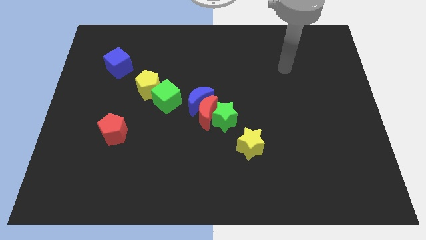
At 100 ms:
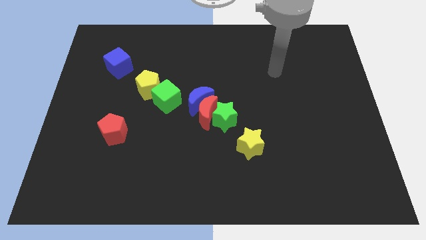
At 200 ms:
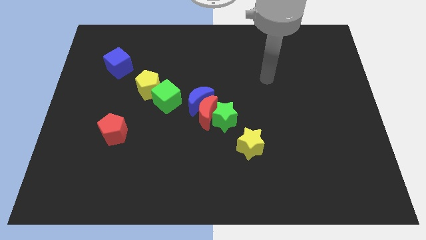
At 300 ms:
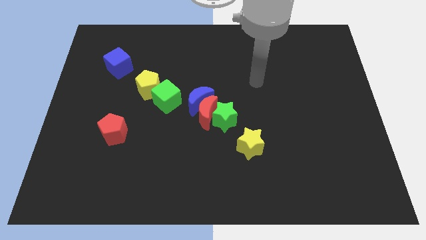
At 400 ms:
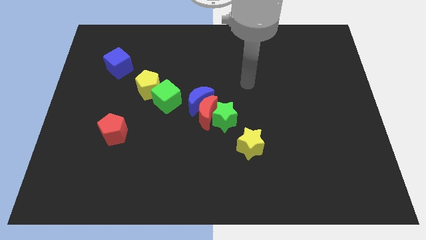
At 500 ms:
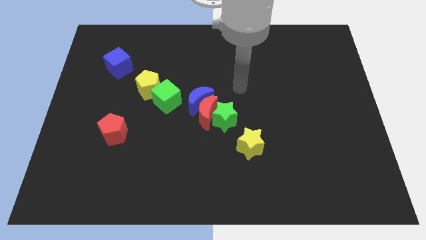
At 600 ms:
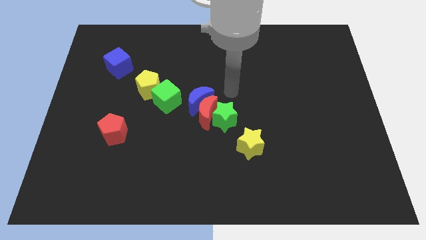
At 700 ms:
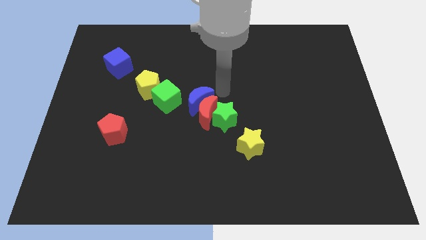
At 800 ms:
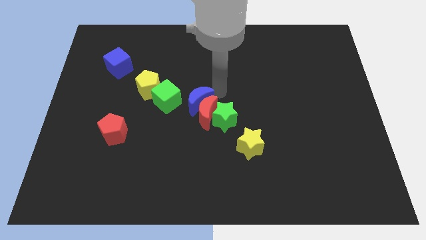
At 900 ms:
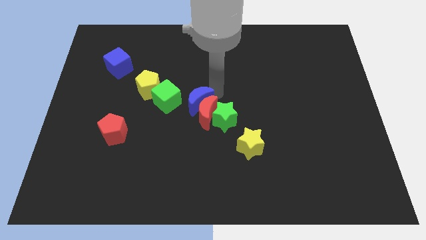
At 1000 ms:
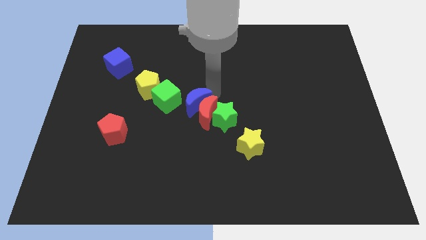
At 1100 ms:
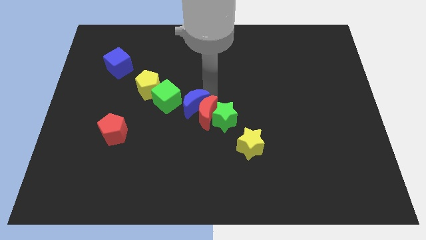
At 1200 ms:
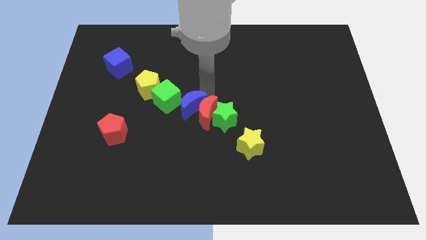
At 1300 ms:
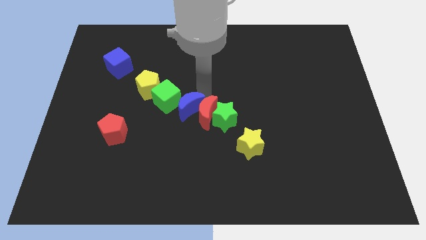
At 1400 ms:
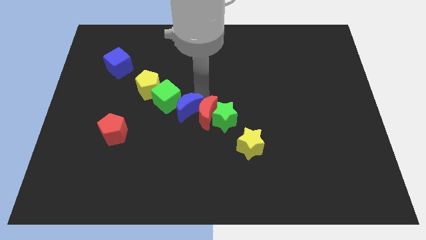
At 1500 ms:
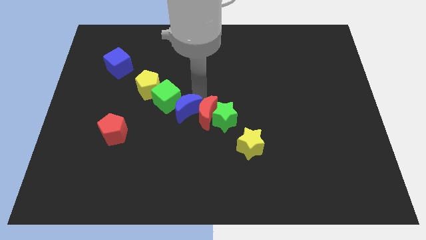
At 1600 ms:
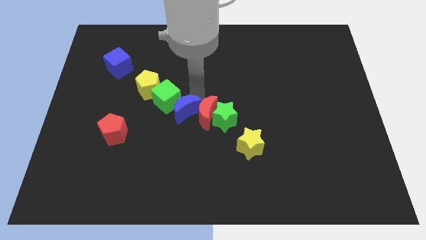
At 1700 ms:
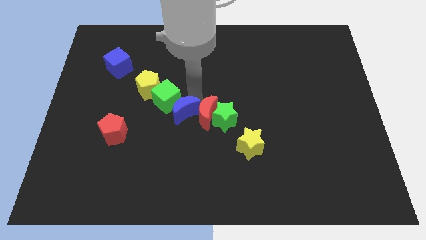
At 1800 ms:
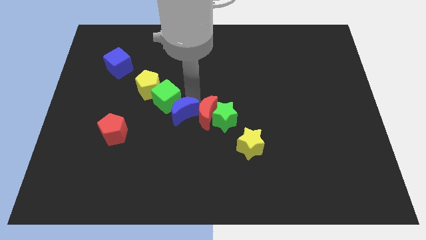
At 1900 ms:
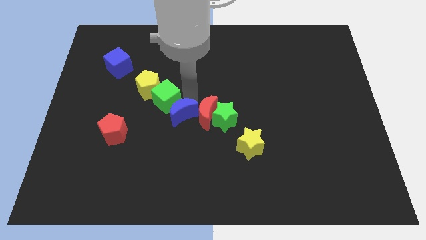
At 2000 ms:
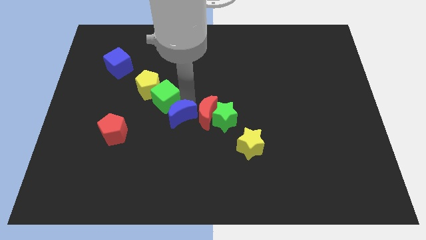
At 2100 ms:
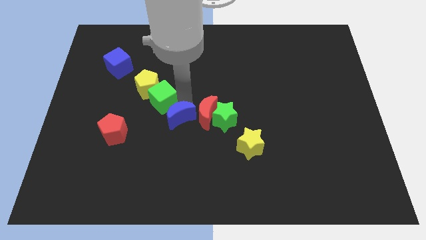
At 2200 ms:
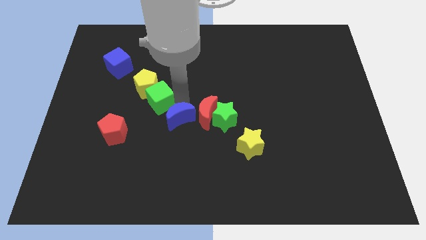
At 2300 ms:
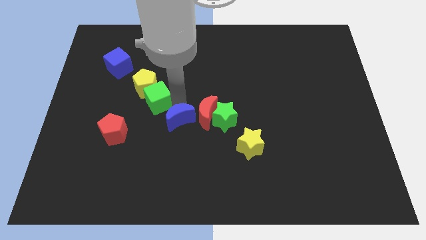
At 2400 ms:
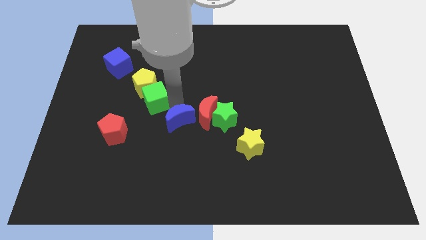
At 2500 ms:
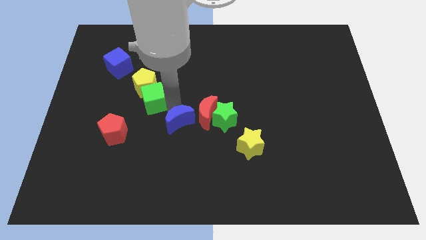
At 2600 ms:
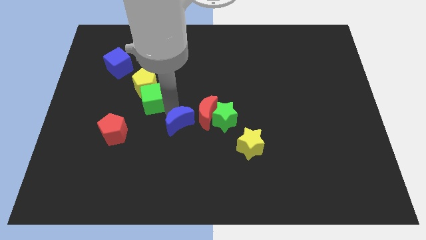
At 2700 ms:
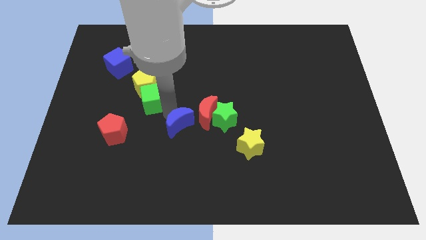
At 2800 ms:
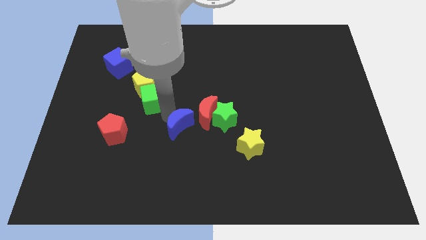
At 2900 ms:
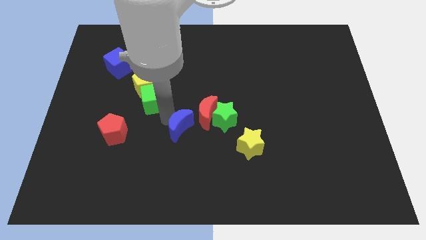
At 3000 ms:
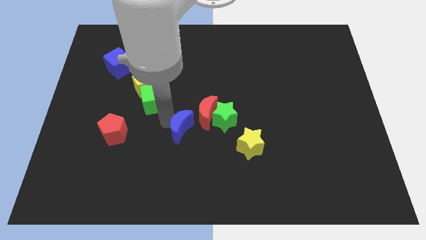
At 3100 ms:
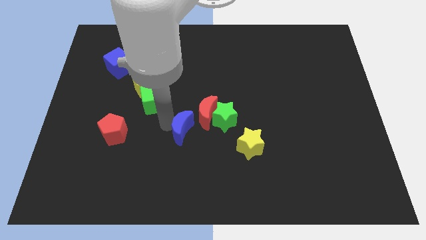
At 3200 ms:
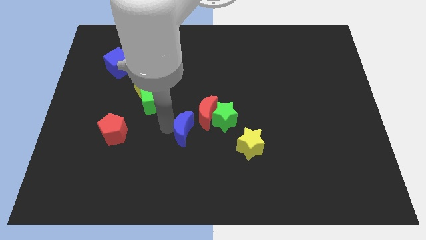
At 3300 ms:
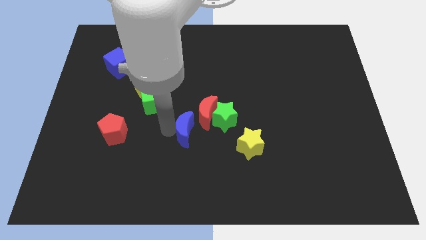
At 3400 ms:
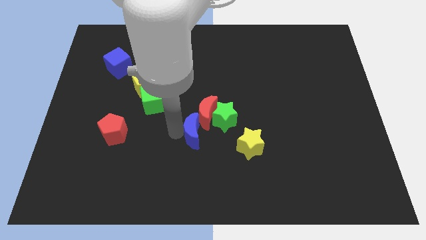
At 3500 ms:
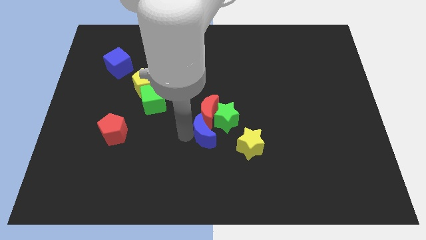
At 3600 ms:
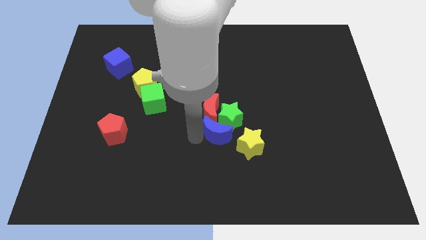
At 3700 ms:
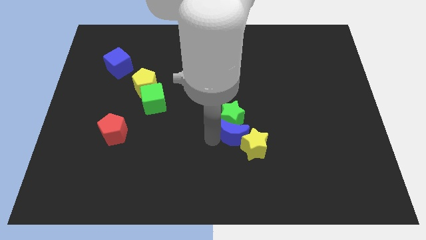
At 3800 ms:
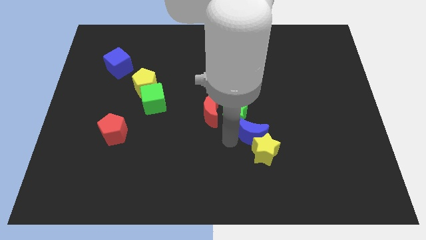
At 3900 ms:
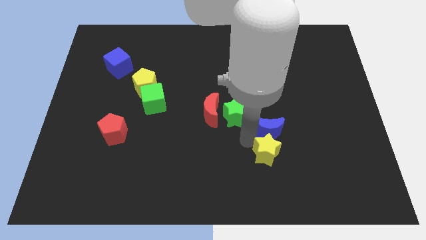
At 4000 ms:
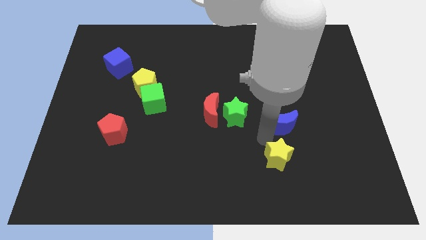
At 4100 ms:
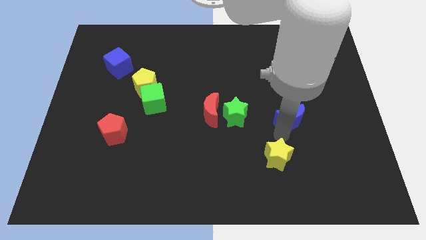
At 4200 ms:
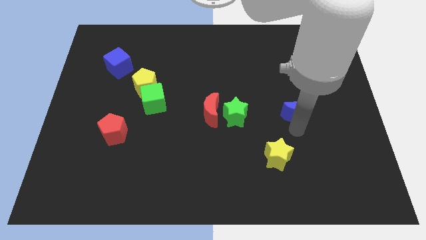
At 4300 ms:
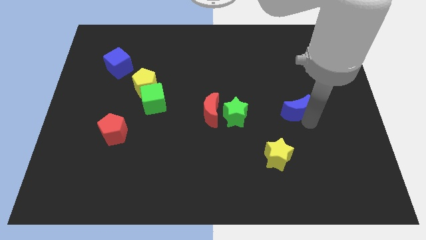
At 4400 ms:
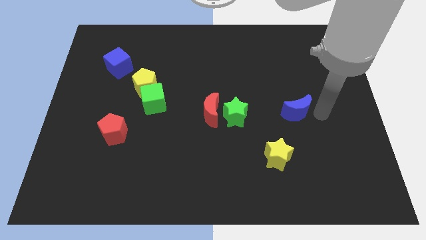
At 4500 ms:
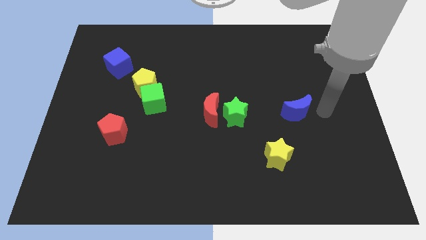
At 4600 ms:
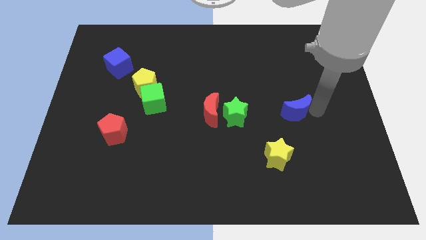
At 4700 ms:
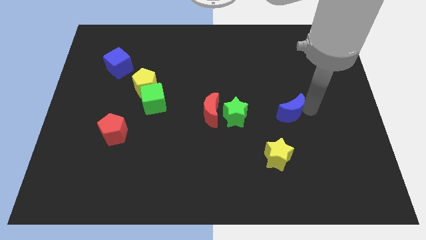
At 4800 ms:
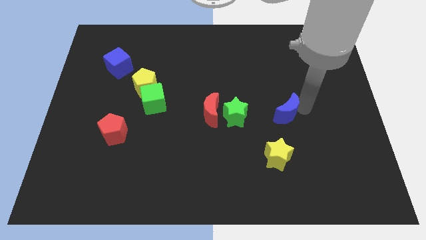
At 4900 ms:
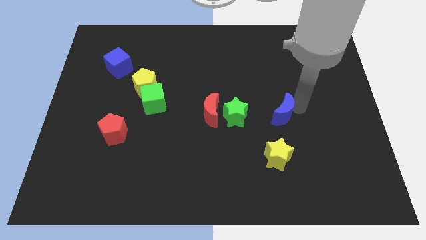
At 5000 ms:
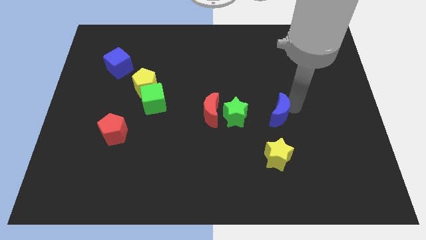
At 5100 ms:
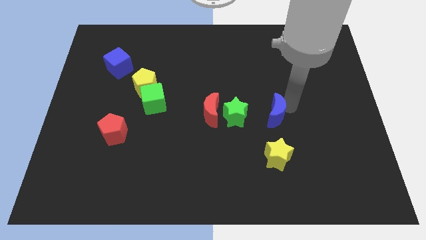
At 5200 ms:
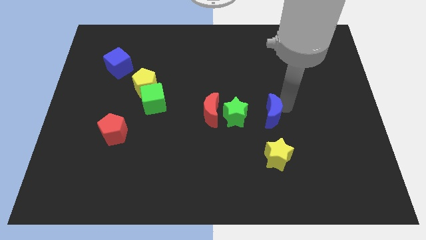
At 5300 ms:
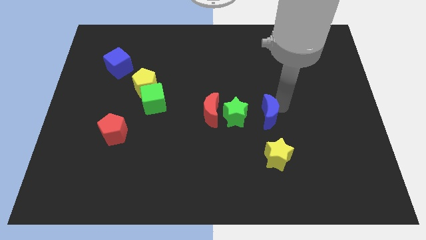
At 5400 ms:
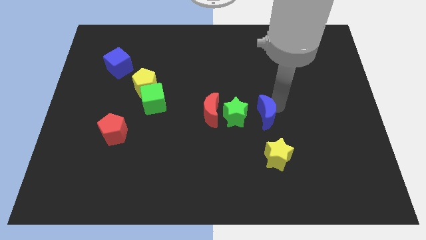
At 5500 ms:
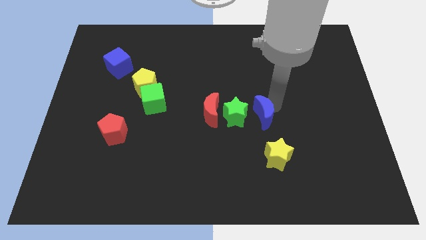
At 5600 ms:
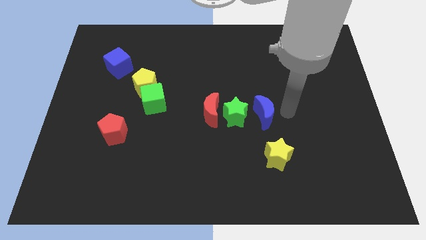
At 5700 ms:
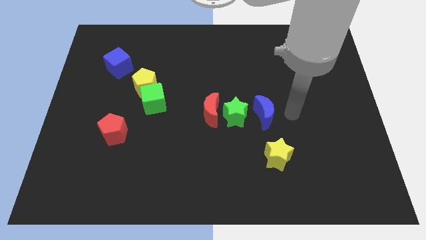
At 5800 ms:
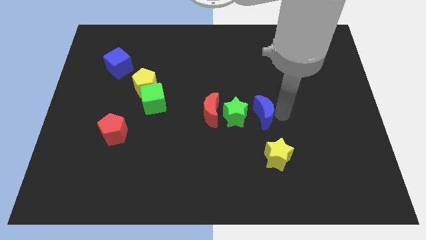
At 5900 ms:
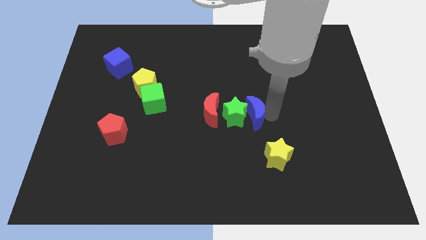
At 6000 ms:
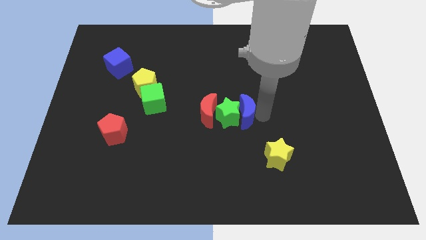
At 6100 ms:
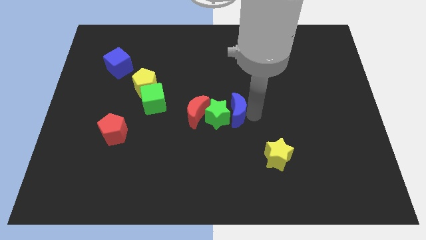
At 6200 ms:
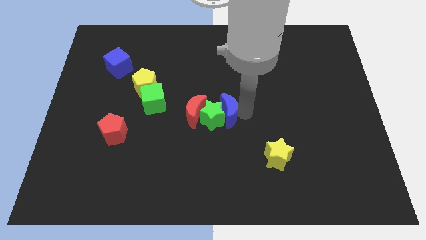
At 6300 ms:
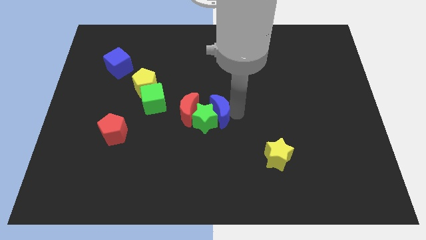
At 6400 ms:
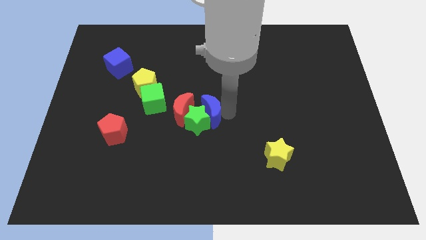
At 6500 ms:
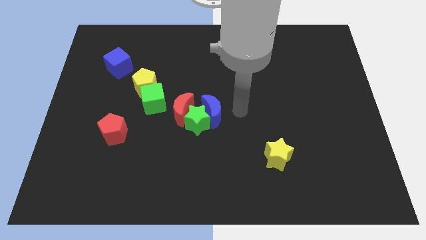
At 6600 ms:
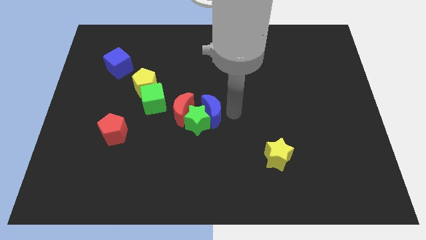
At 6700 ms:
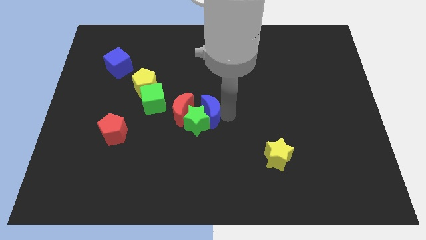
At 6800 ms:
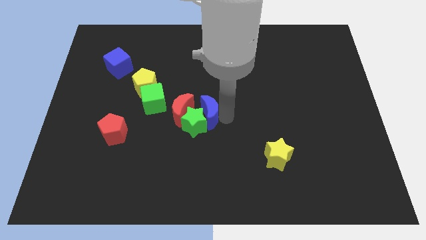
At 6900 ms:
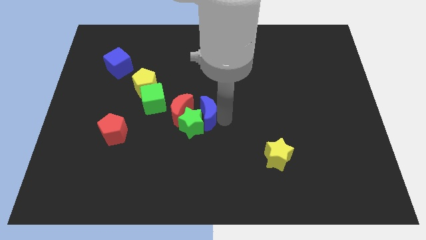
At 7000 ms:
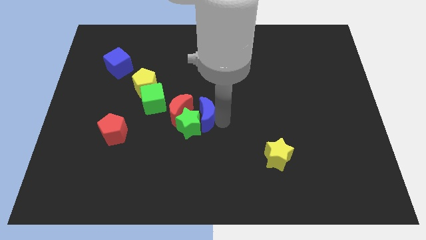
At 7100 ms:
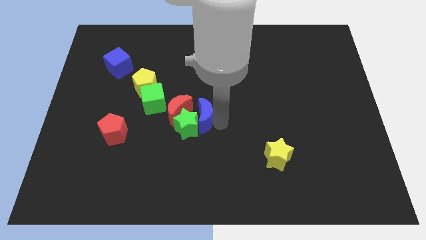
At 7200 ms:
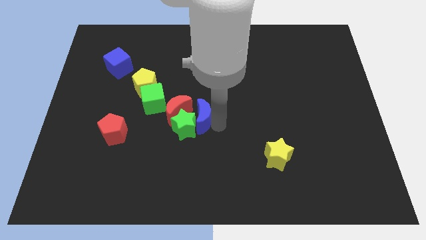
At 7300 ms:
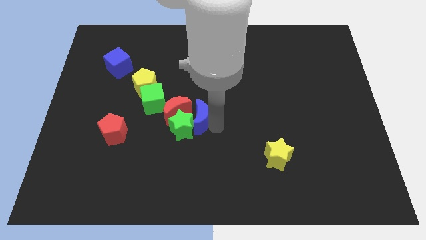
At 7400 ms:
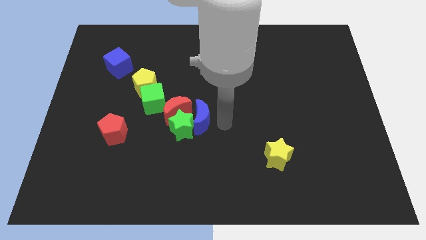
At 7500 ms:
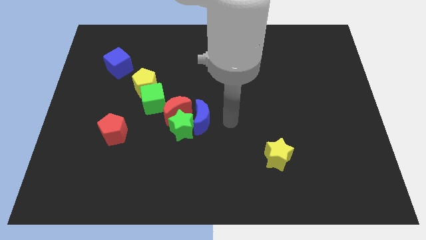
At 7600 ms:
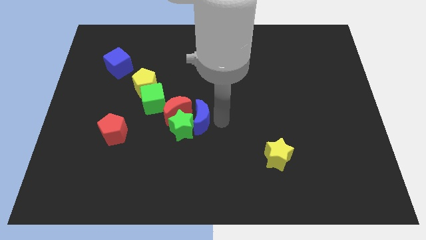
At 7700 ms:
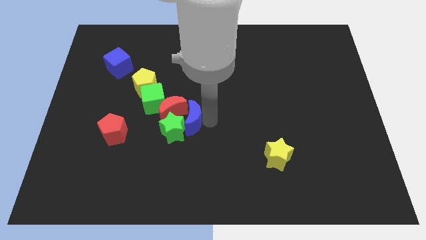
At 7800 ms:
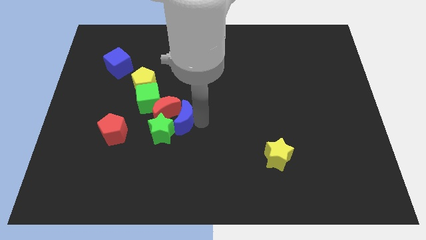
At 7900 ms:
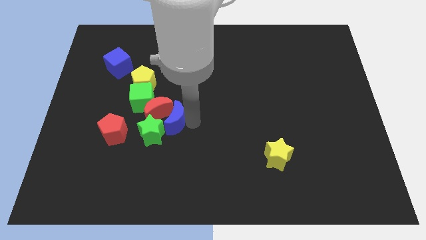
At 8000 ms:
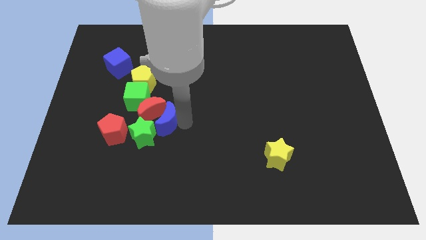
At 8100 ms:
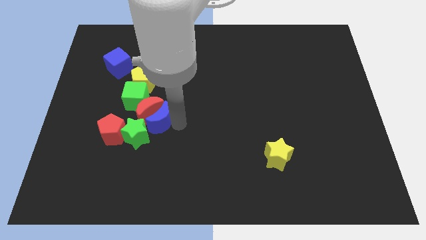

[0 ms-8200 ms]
move the blue moon left slightly

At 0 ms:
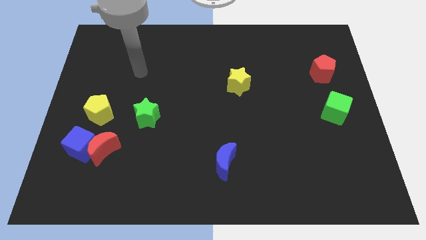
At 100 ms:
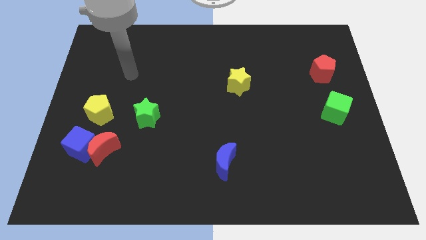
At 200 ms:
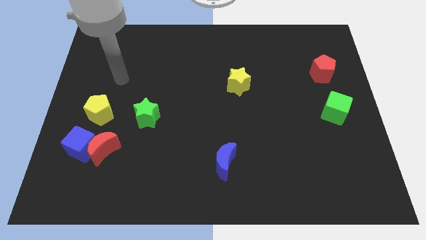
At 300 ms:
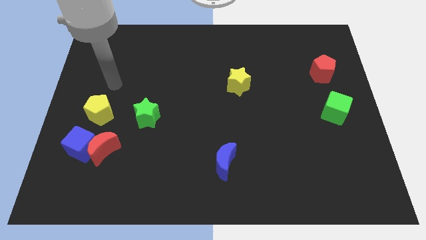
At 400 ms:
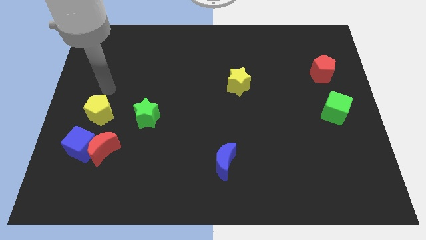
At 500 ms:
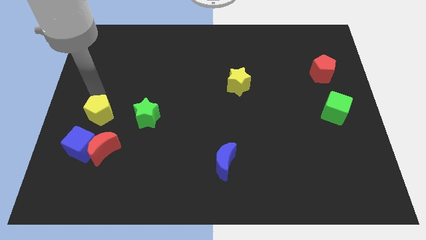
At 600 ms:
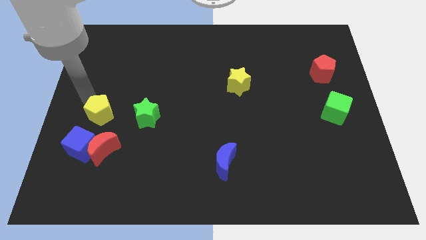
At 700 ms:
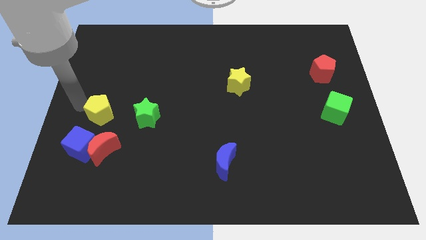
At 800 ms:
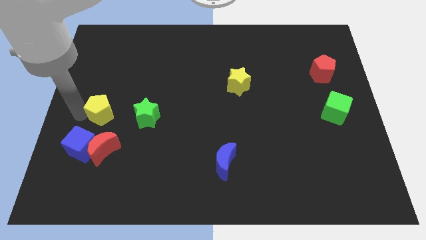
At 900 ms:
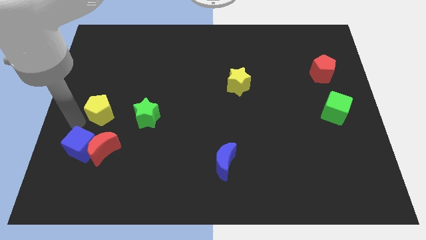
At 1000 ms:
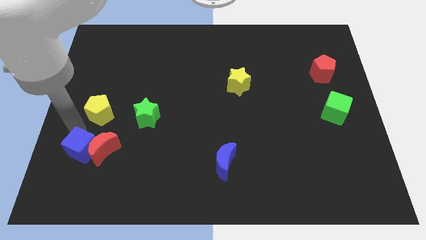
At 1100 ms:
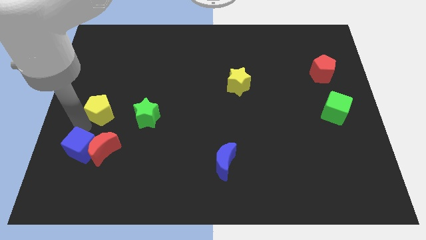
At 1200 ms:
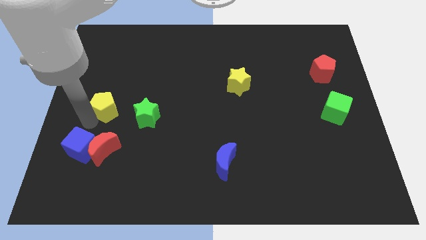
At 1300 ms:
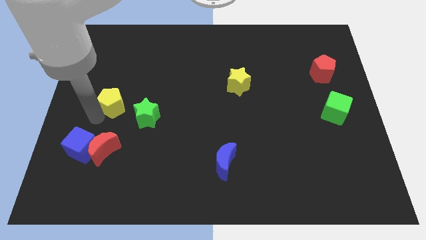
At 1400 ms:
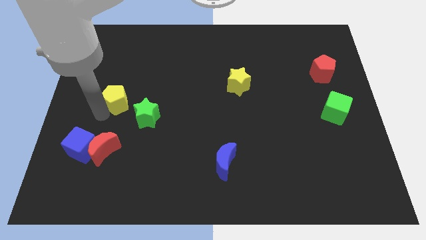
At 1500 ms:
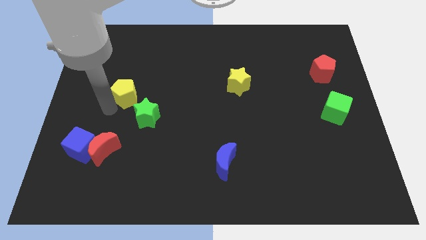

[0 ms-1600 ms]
slide the yellow pentagon slightly upwards and right diagonally
